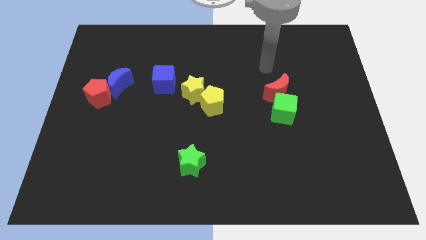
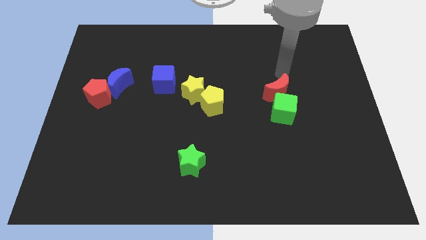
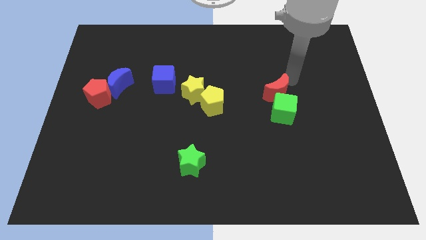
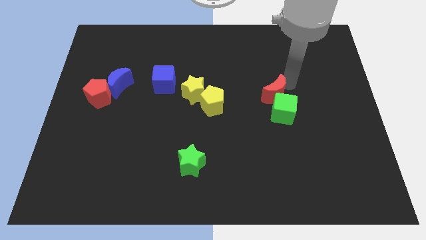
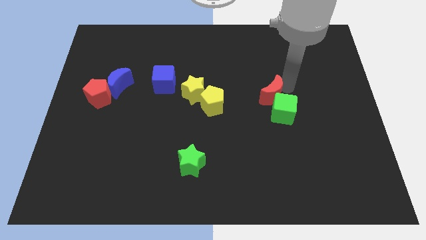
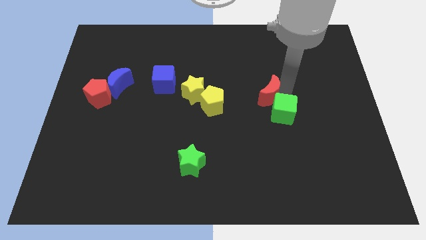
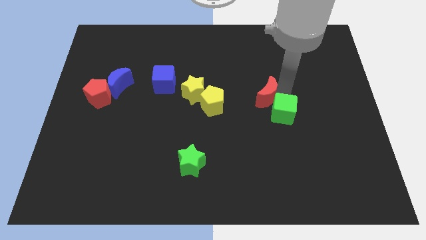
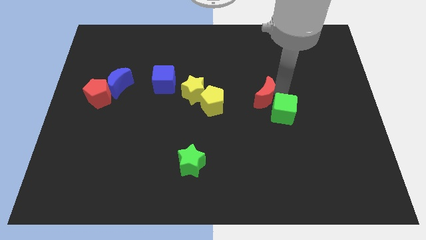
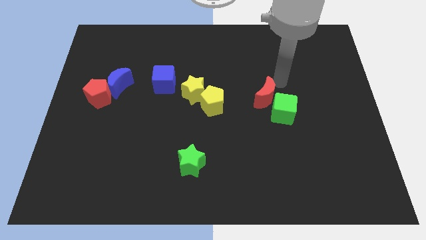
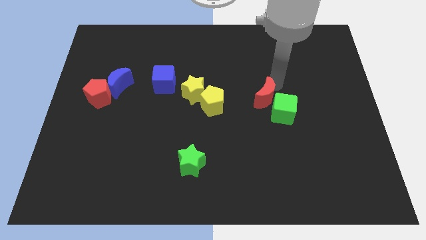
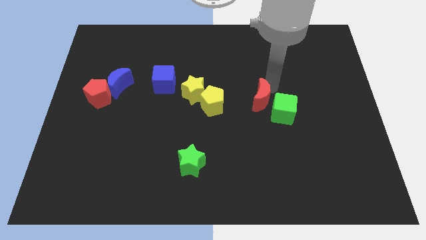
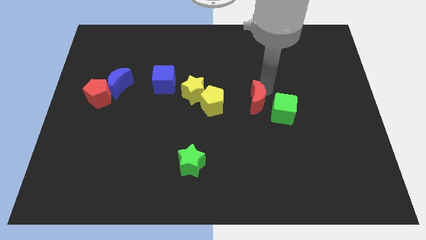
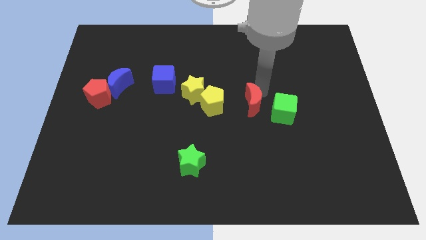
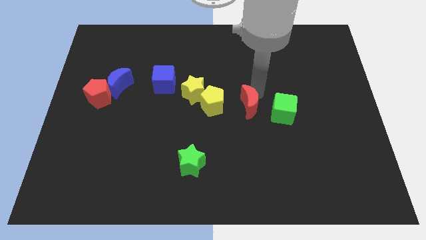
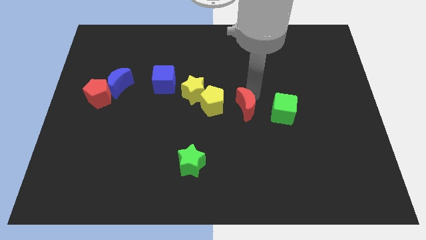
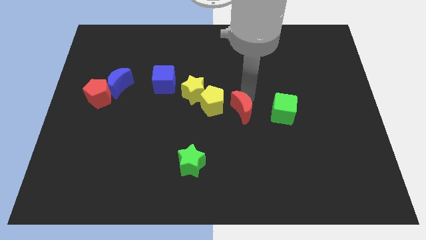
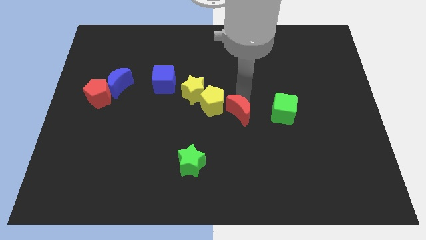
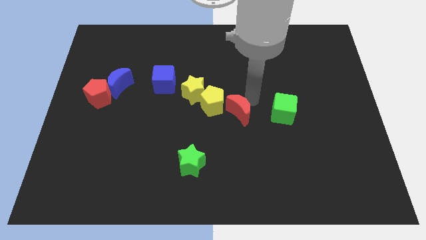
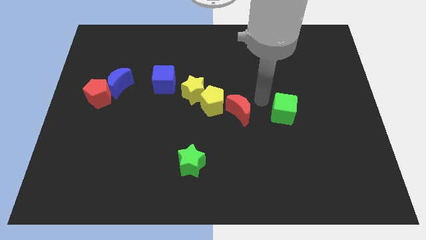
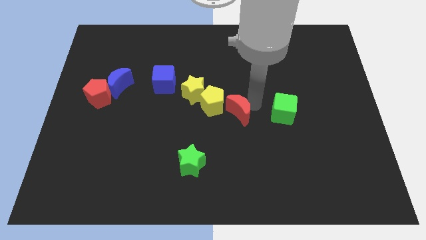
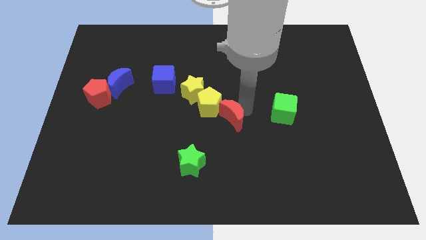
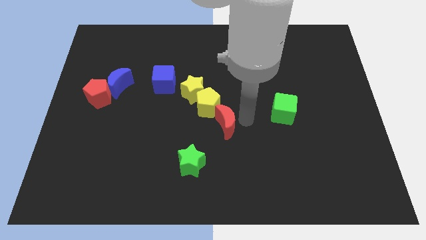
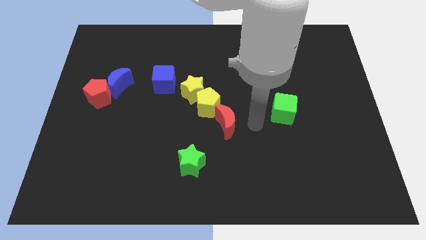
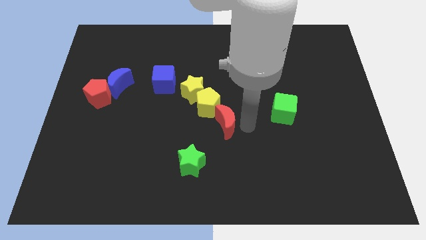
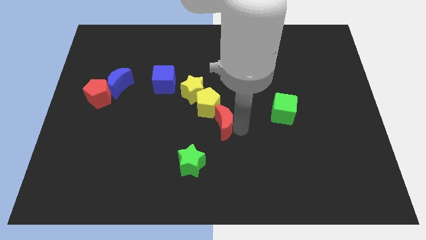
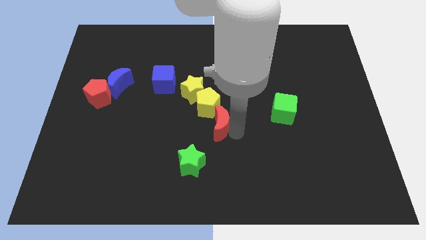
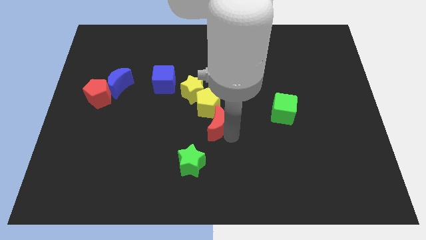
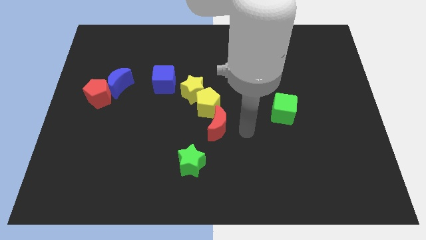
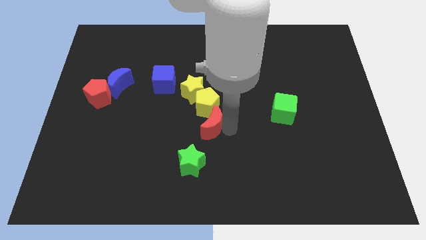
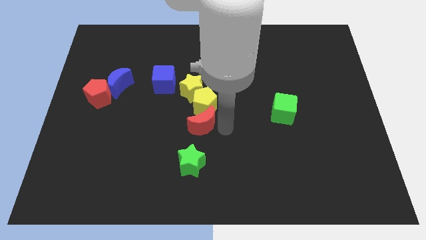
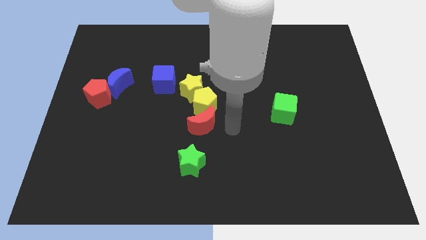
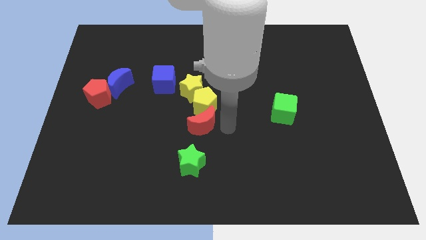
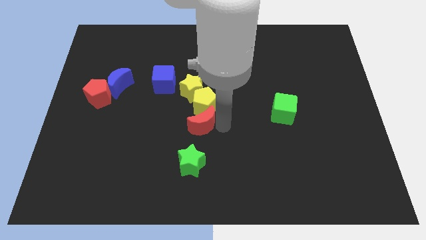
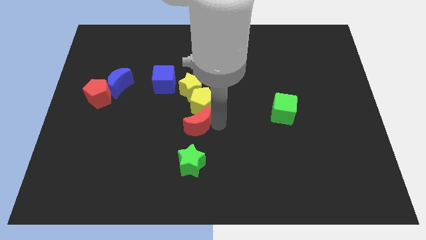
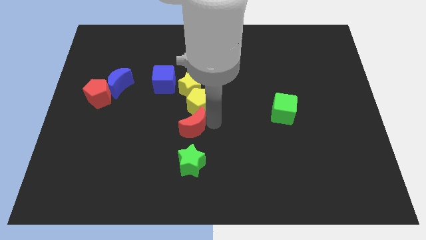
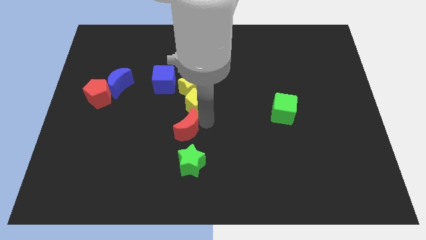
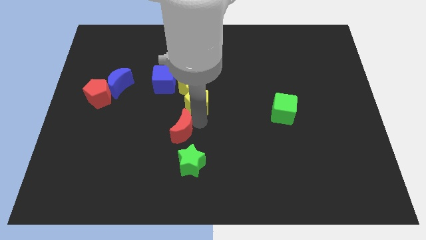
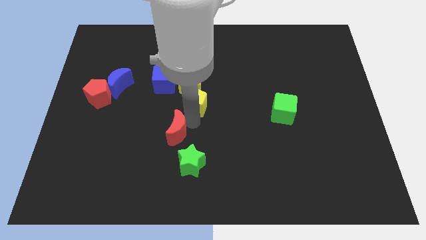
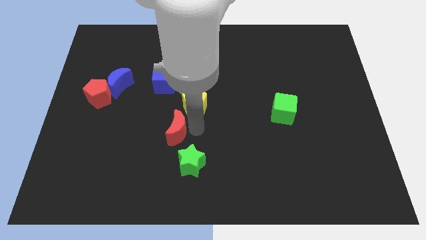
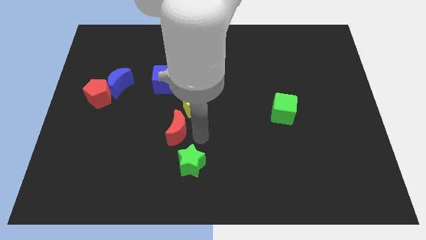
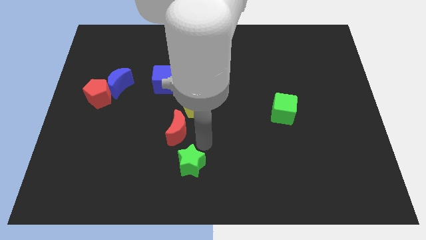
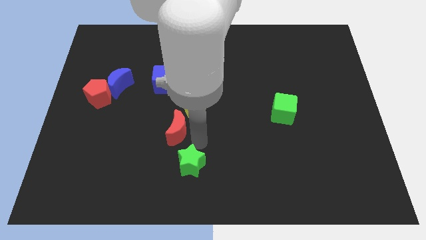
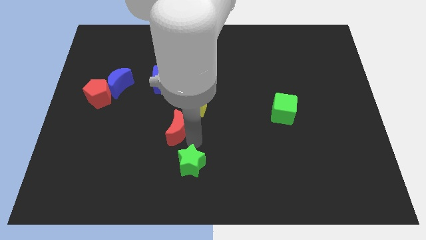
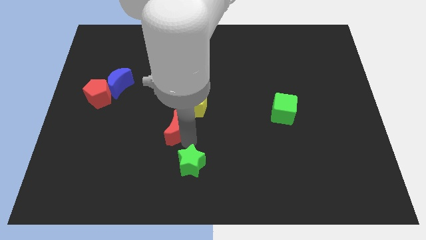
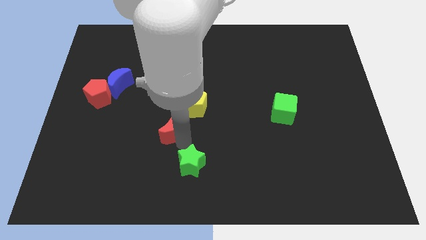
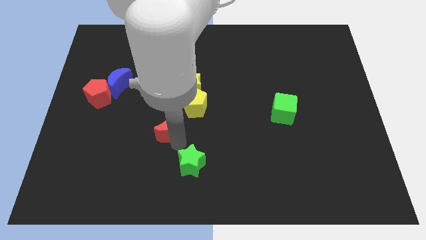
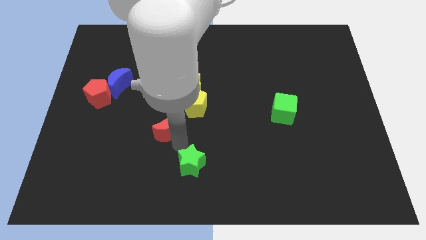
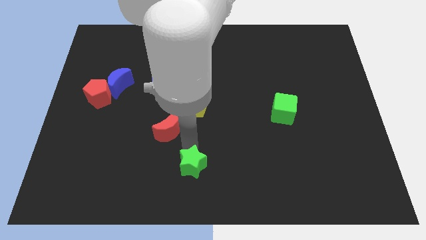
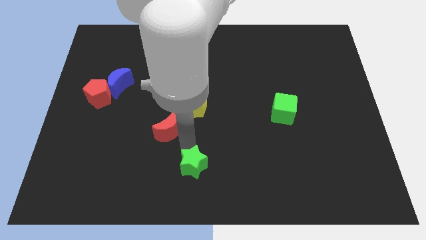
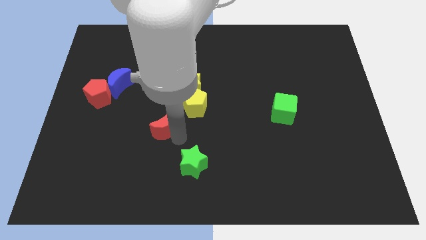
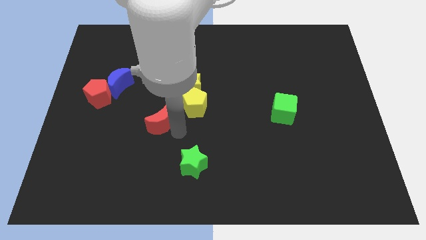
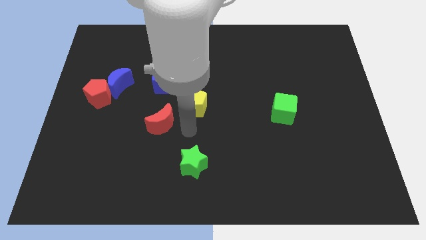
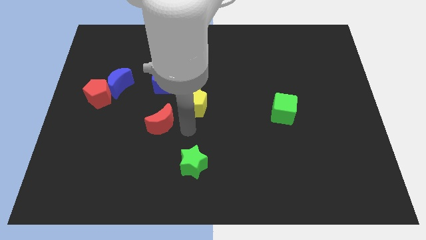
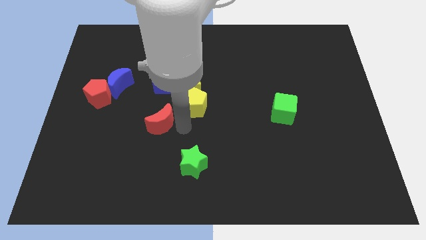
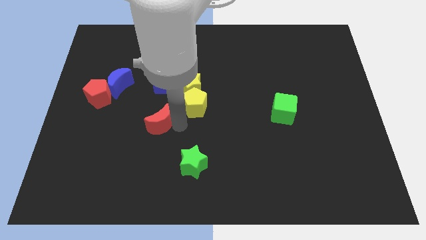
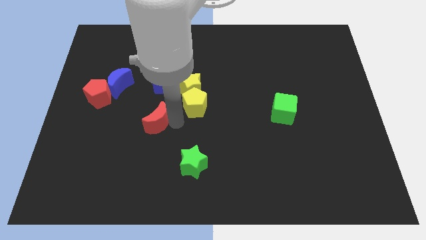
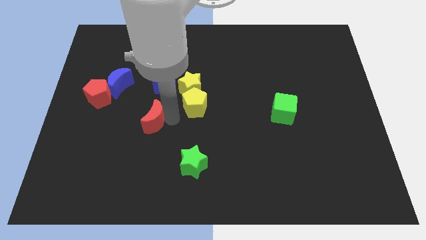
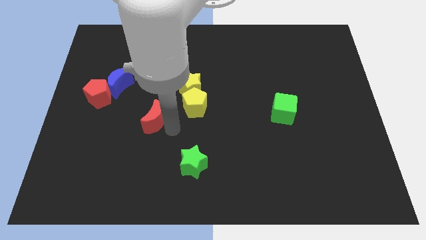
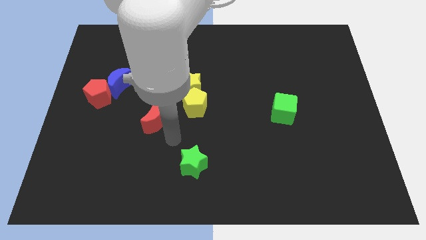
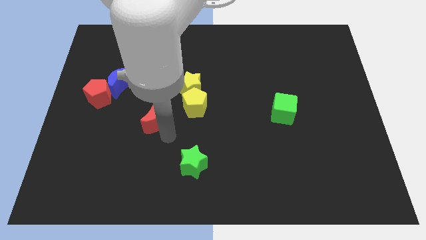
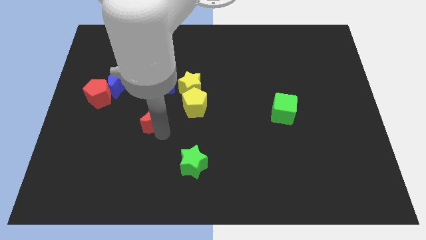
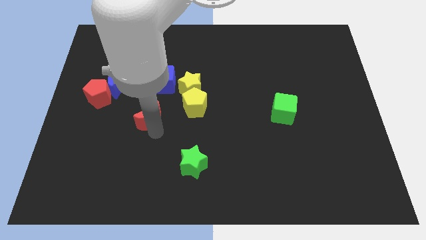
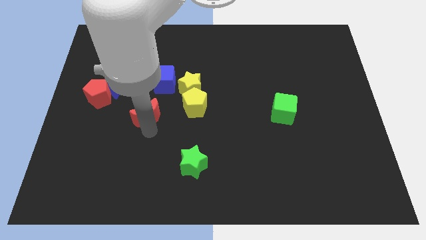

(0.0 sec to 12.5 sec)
slide the red moon diagonally down and to the right of the blue moon

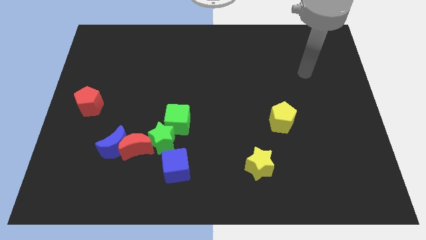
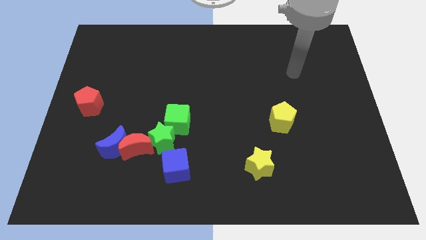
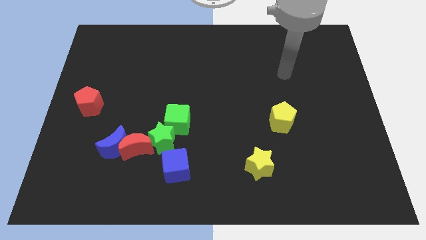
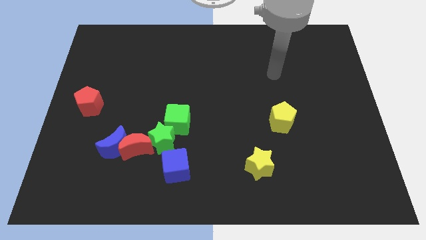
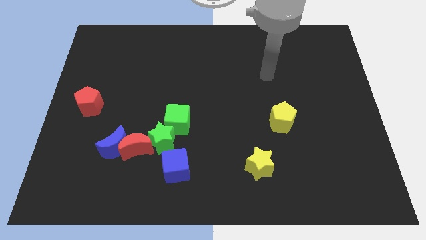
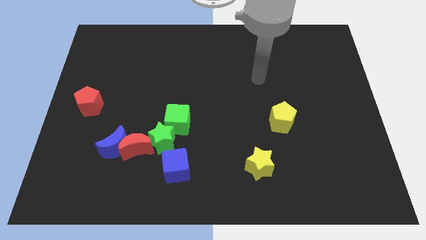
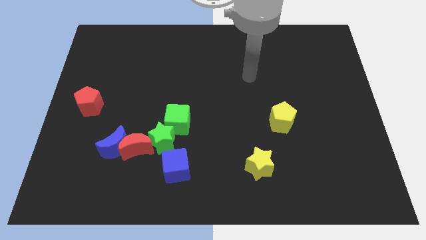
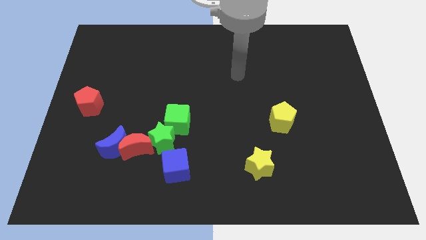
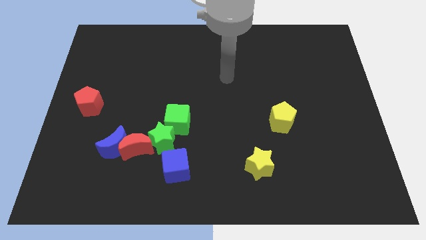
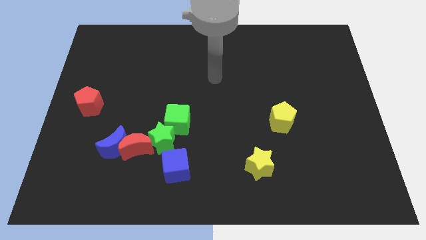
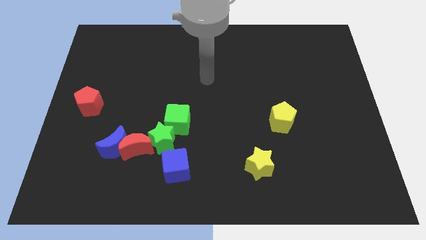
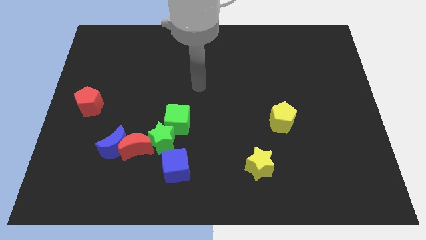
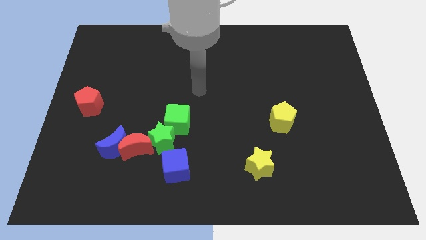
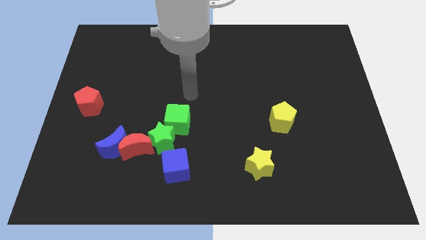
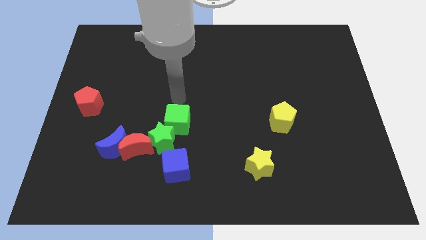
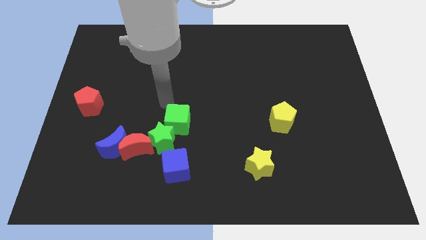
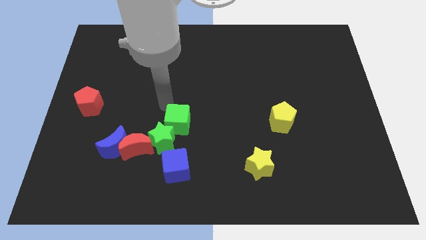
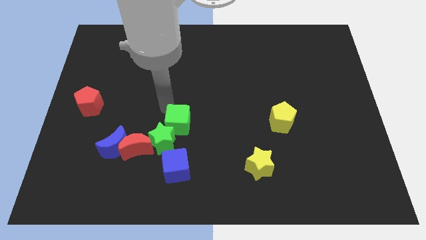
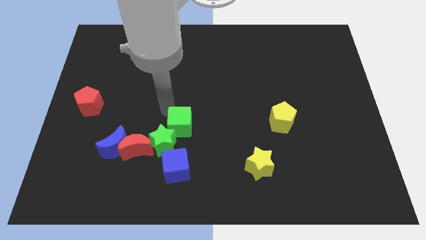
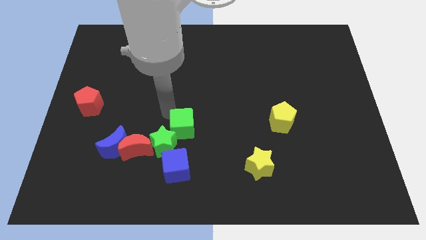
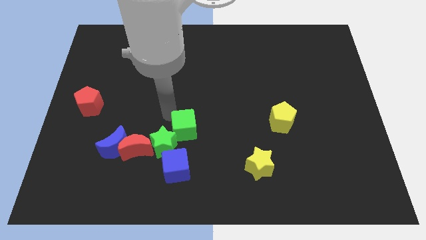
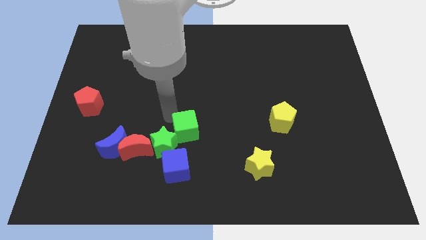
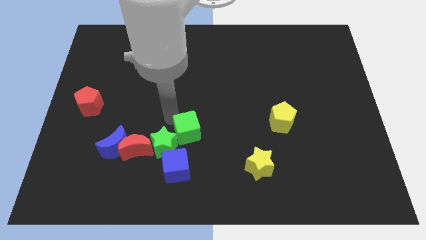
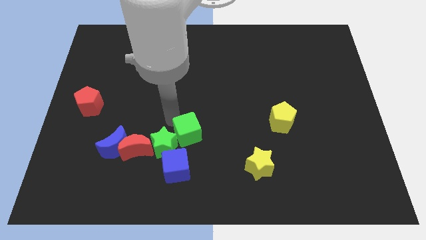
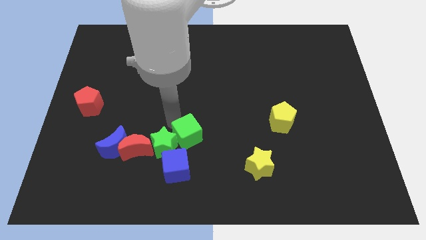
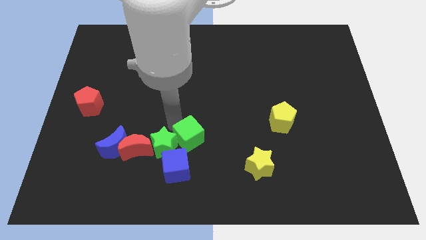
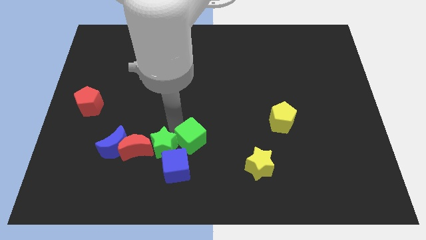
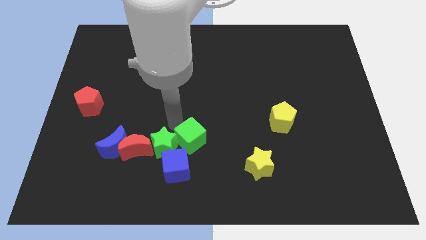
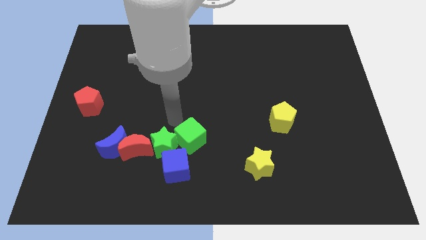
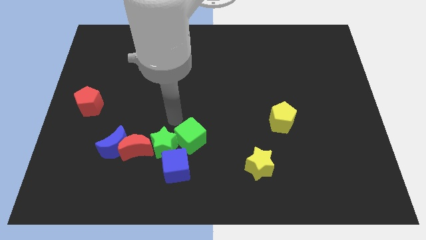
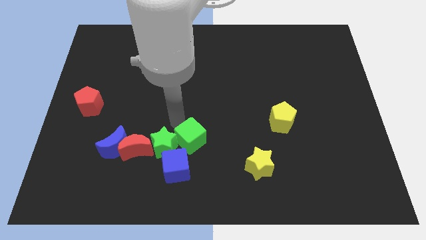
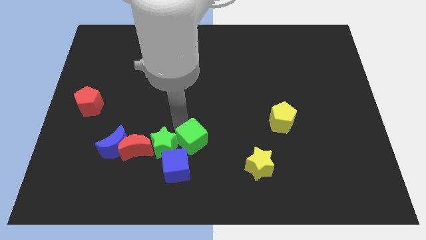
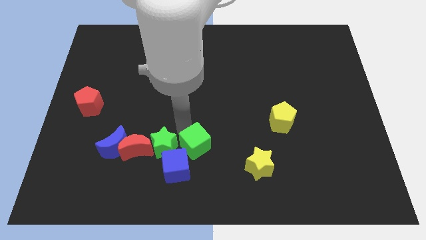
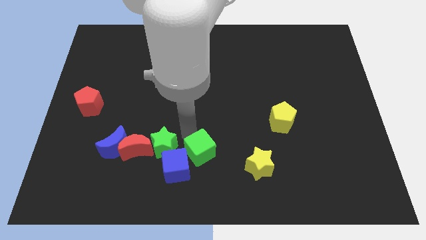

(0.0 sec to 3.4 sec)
slide the green cube to the left of the yellow star
